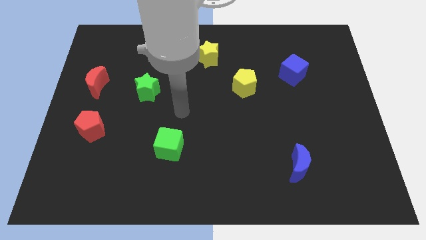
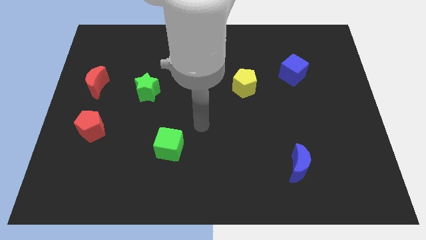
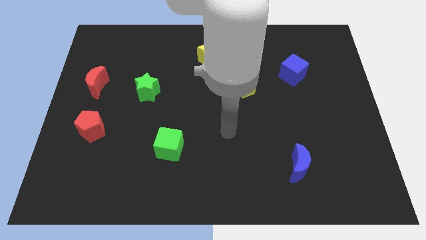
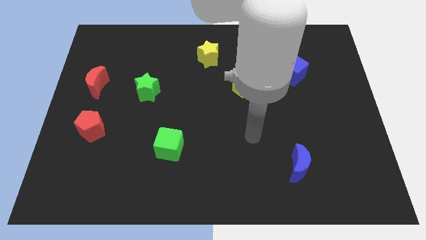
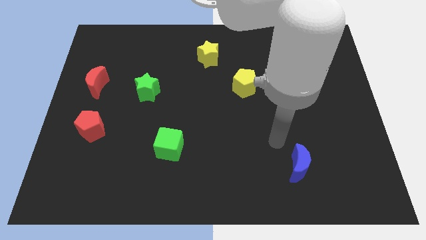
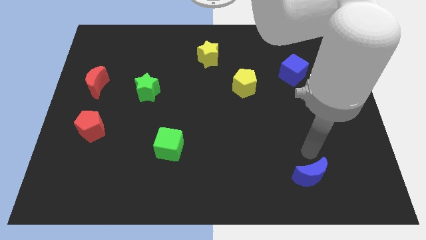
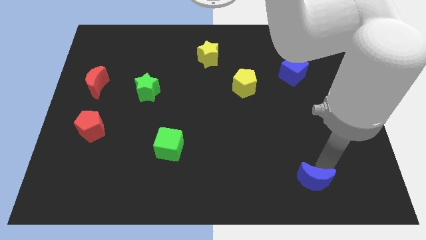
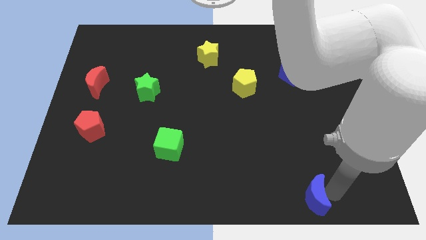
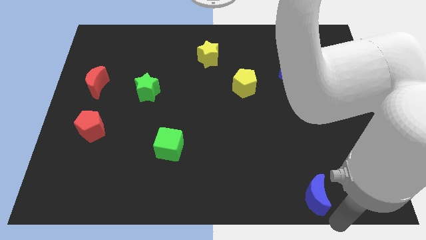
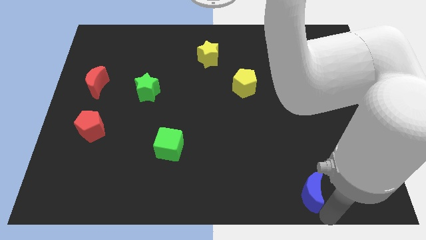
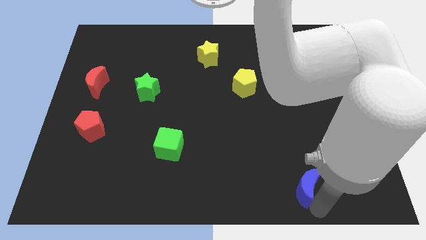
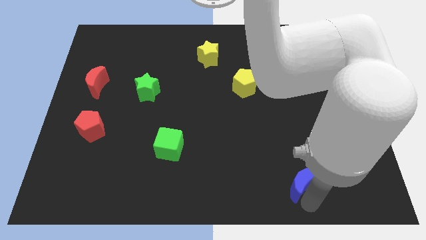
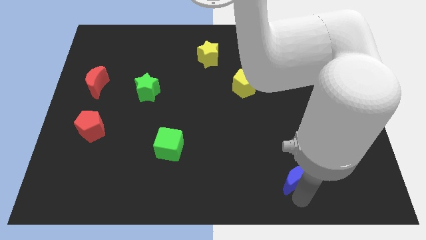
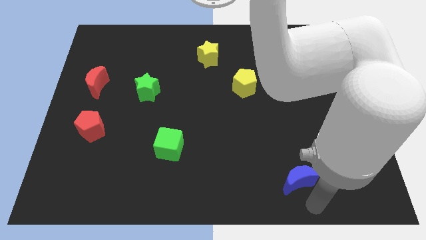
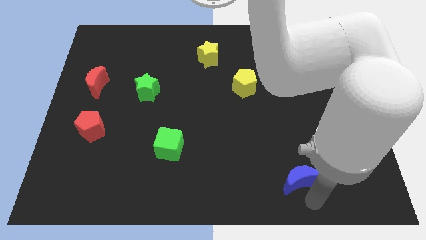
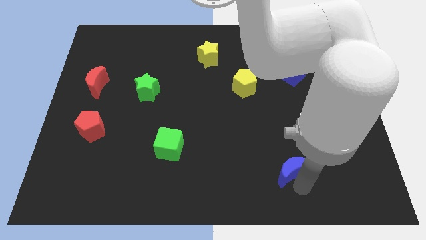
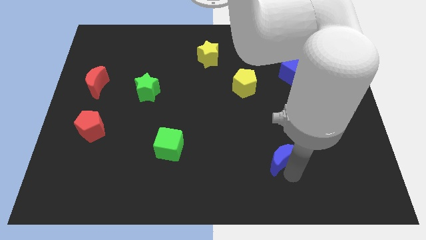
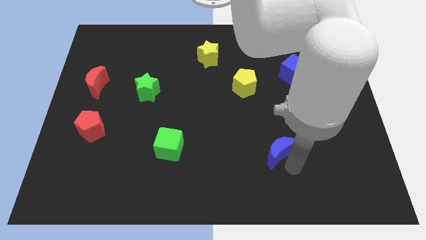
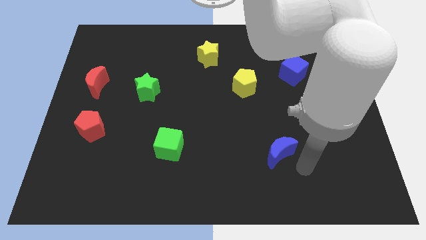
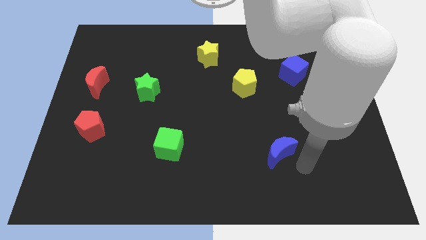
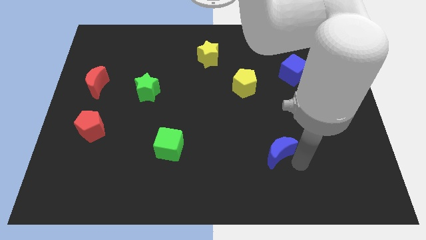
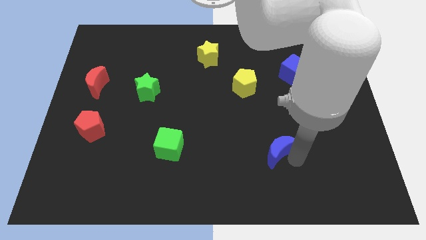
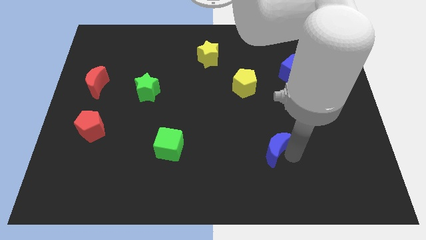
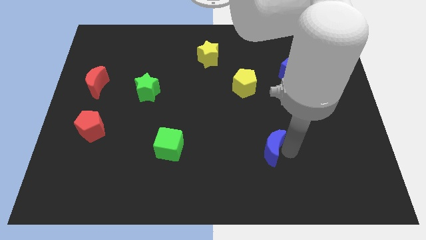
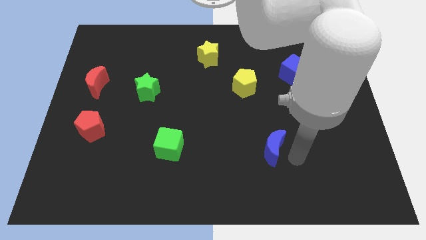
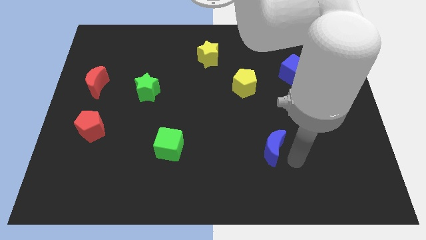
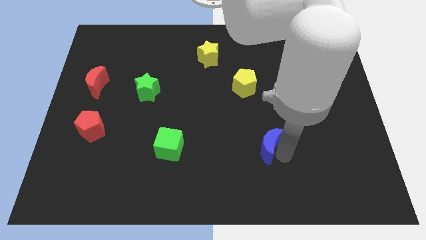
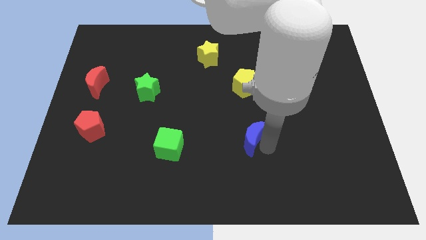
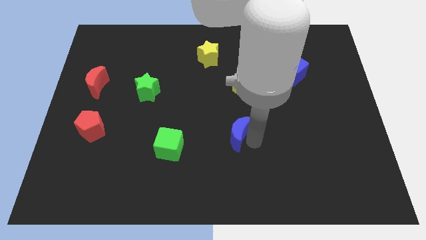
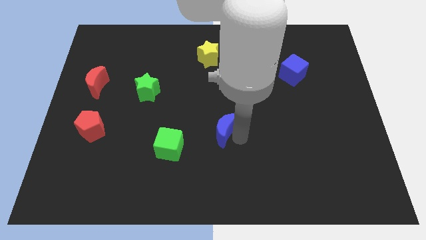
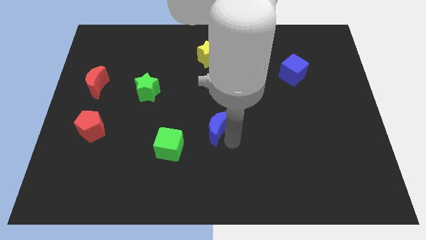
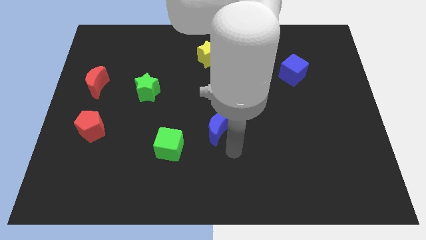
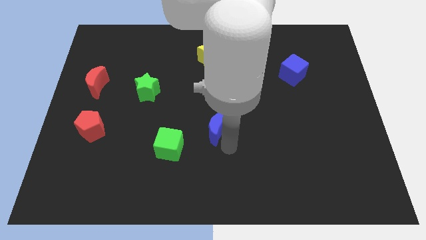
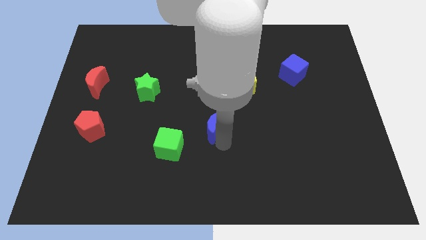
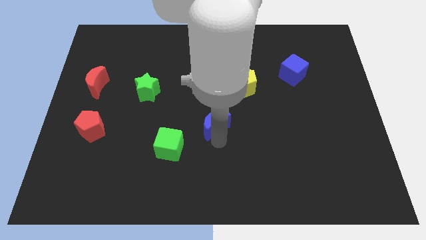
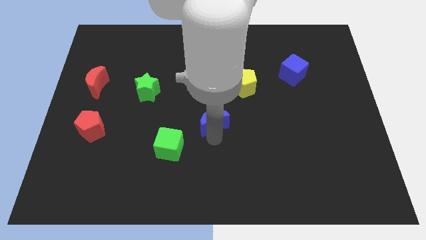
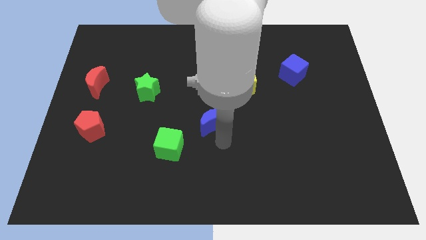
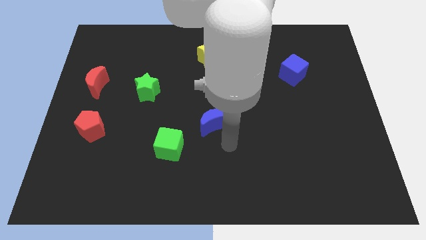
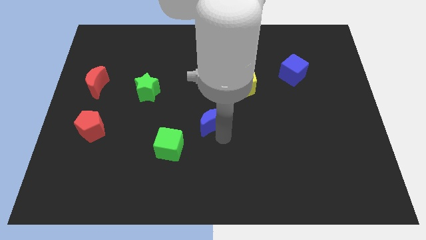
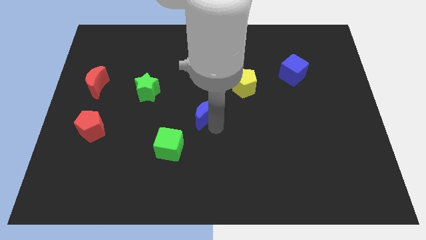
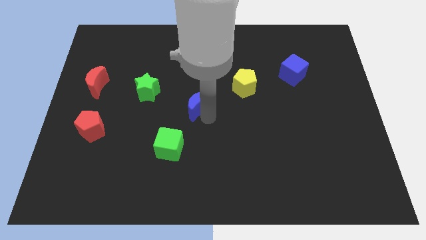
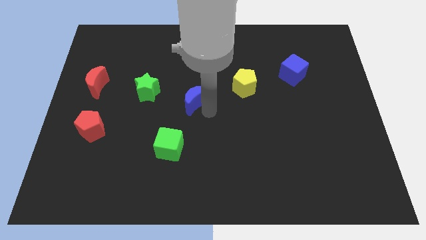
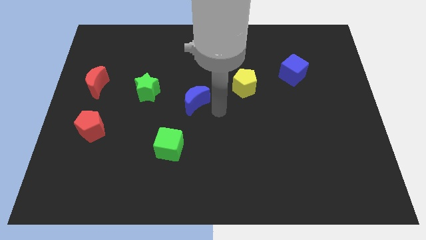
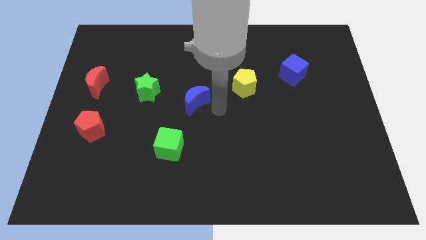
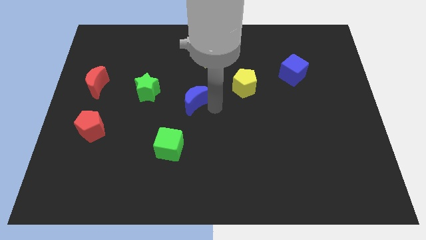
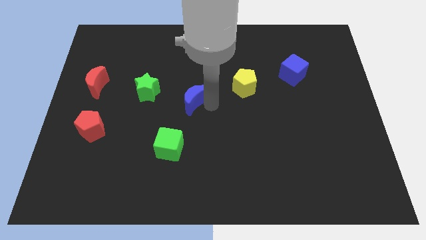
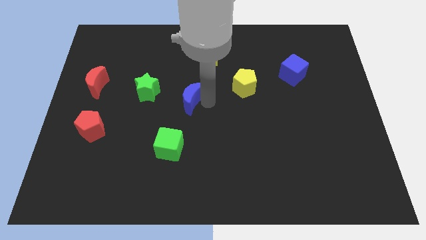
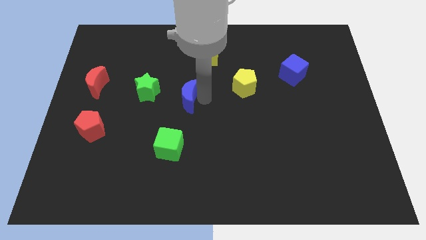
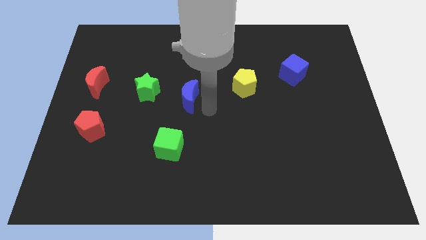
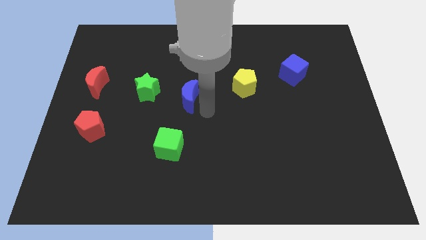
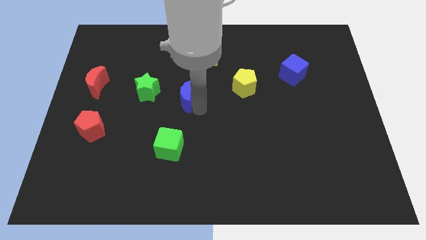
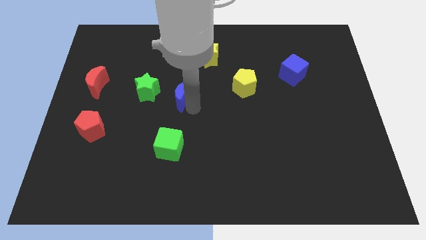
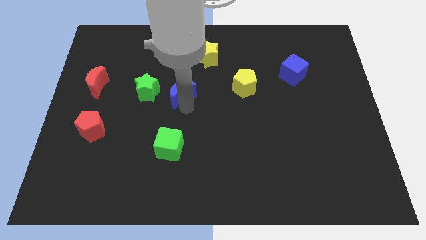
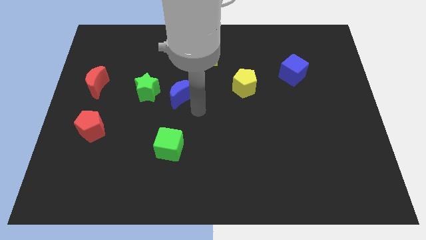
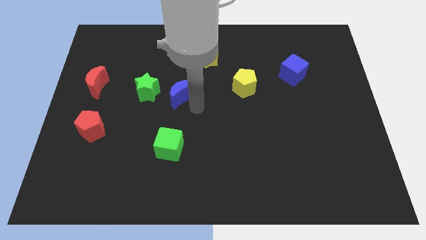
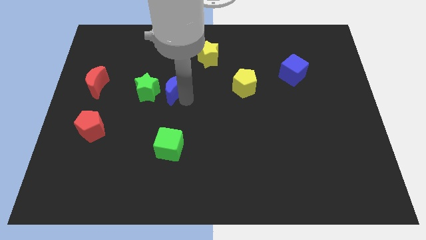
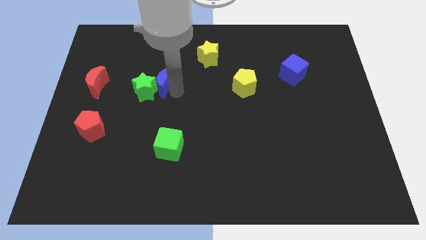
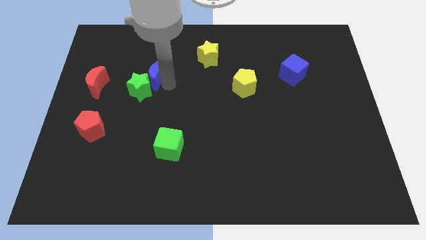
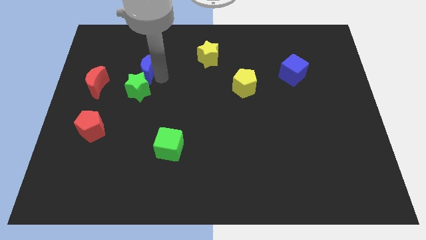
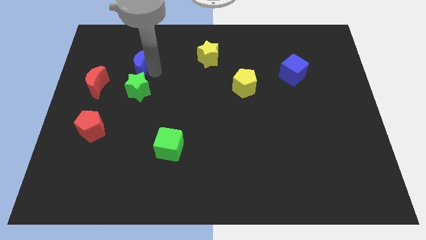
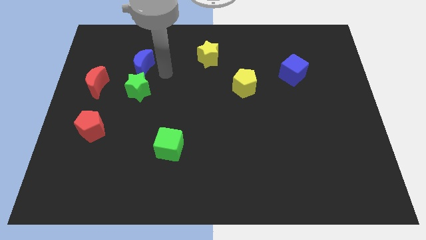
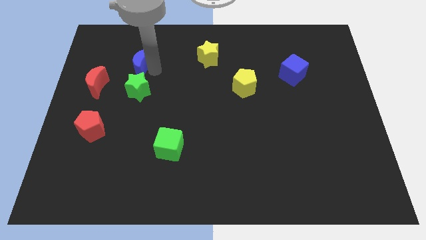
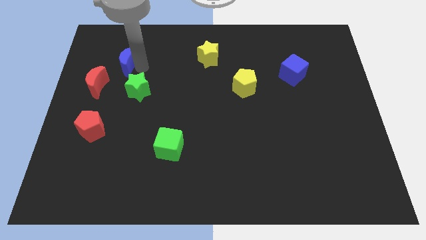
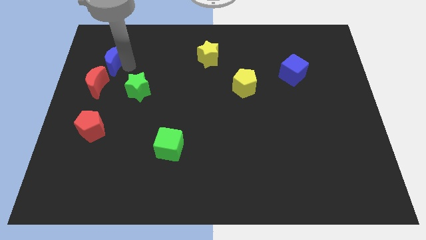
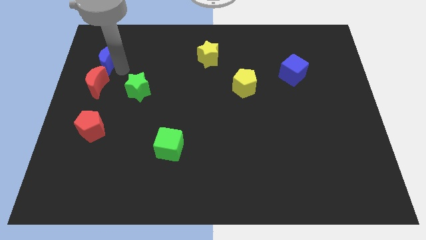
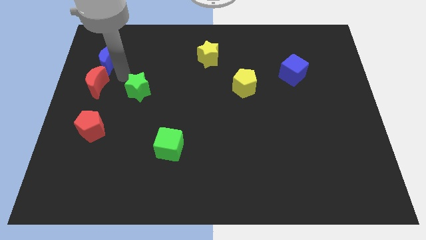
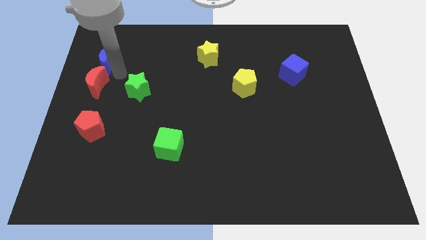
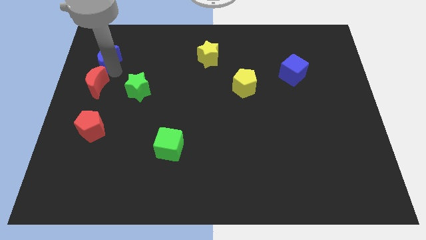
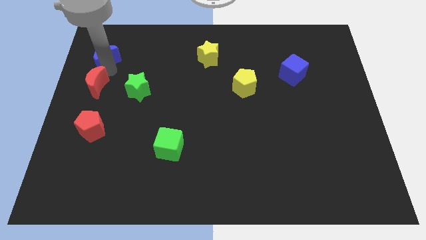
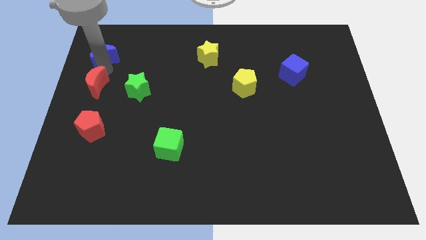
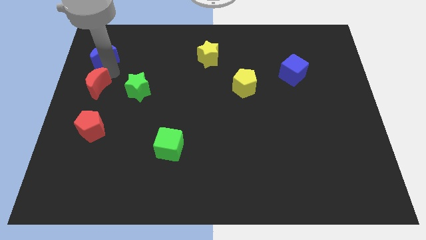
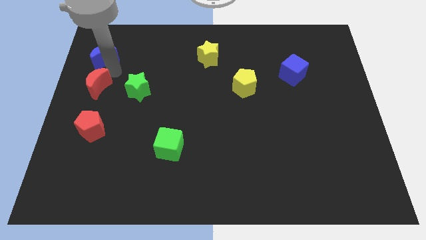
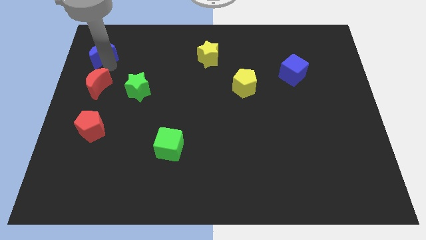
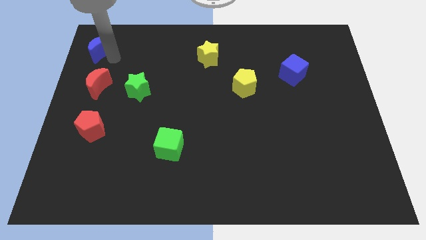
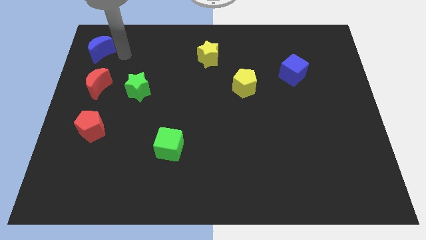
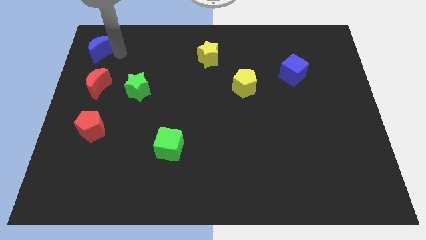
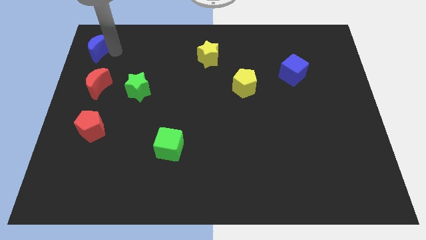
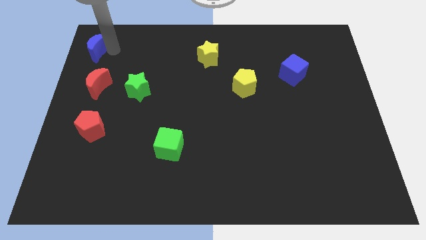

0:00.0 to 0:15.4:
move the blue moon to the top left of the board
